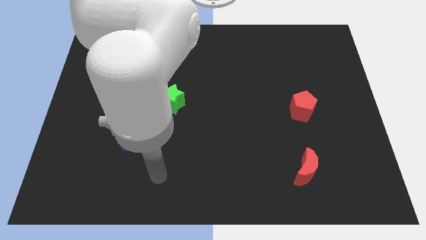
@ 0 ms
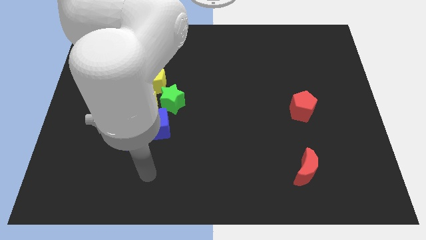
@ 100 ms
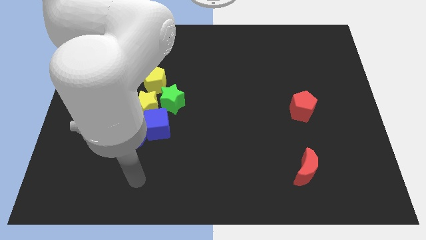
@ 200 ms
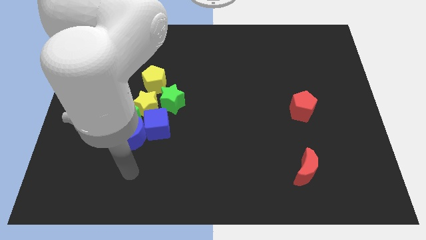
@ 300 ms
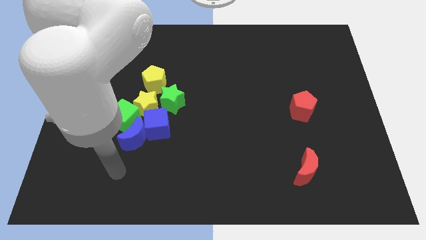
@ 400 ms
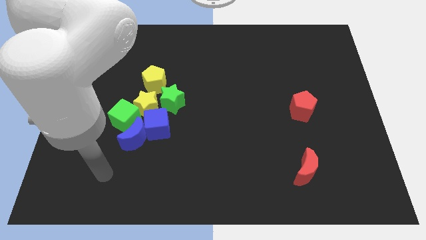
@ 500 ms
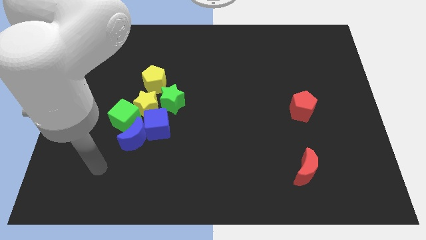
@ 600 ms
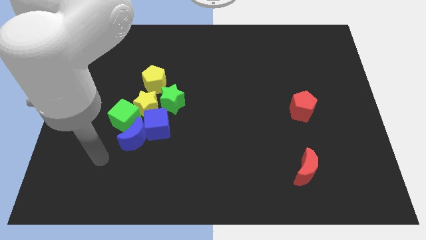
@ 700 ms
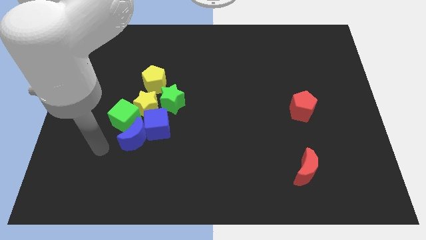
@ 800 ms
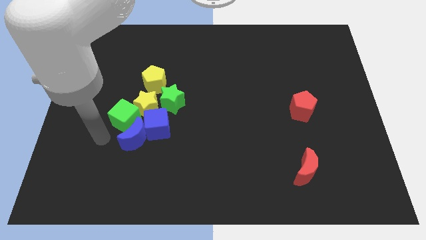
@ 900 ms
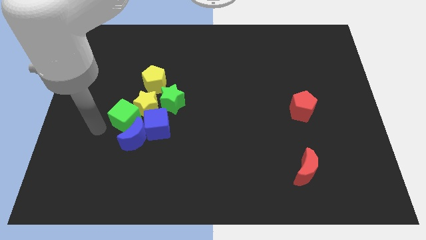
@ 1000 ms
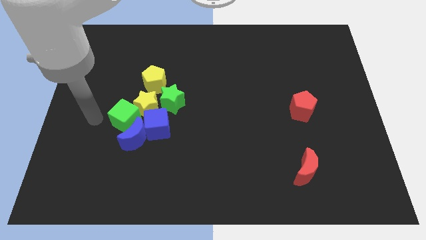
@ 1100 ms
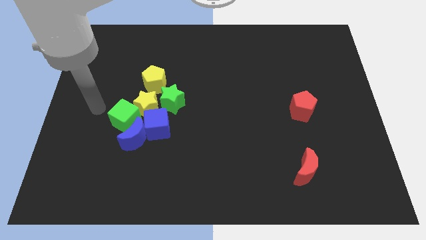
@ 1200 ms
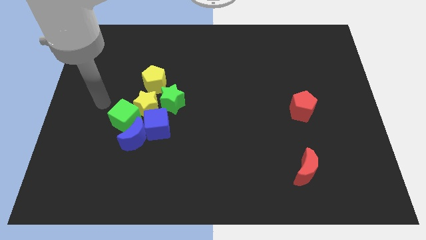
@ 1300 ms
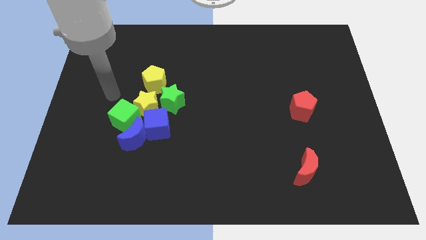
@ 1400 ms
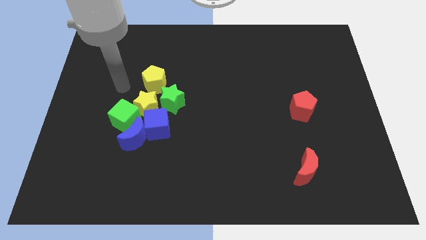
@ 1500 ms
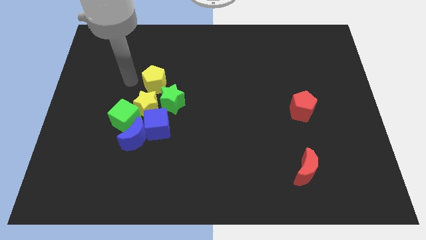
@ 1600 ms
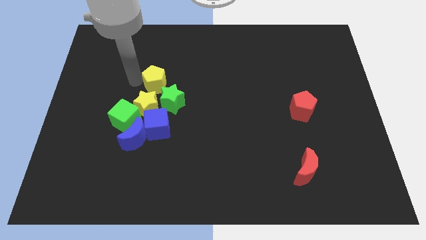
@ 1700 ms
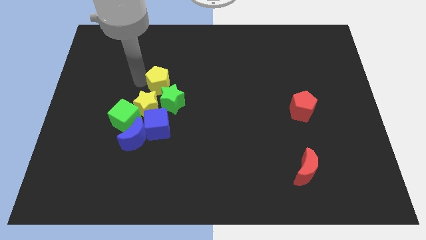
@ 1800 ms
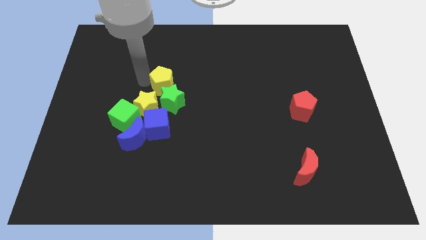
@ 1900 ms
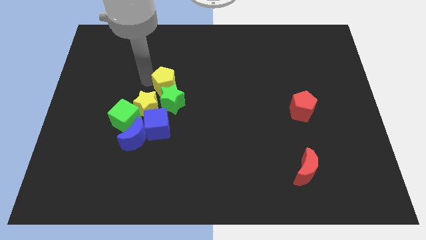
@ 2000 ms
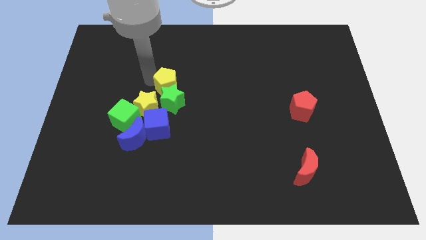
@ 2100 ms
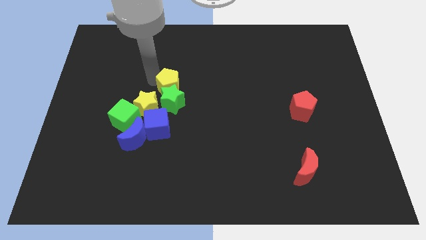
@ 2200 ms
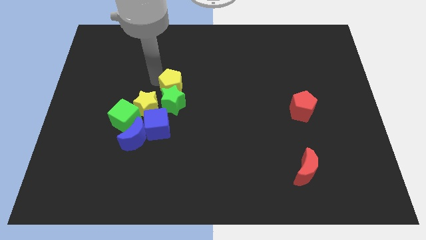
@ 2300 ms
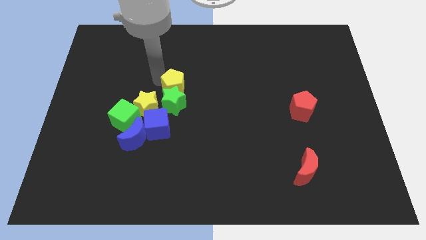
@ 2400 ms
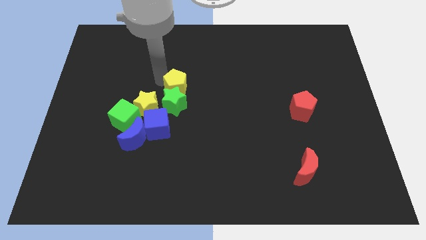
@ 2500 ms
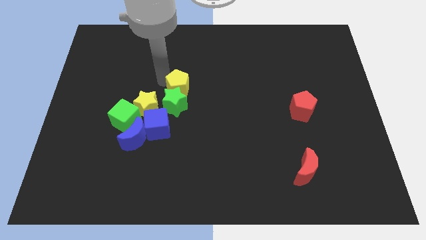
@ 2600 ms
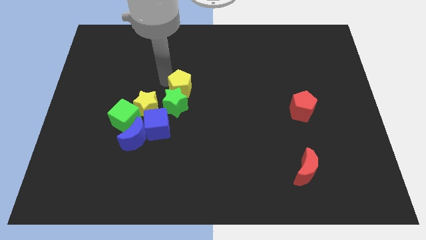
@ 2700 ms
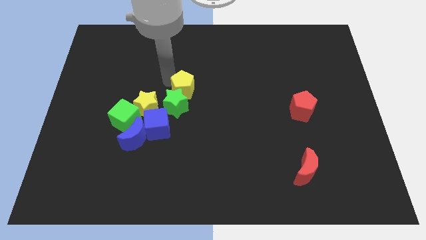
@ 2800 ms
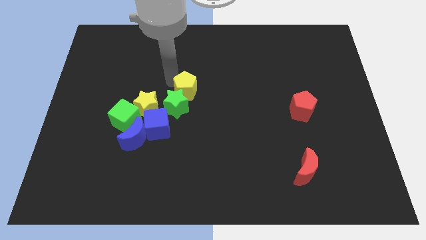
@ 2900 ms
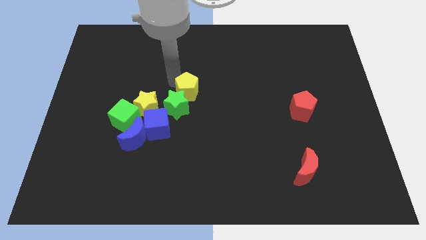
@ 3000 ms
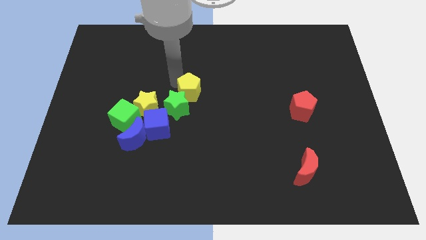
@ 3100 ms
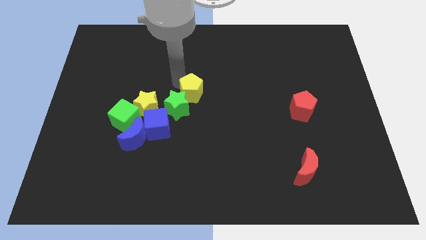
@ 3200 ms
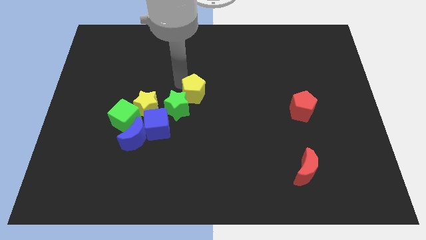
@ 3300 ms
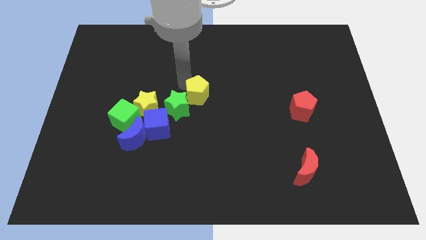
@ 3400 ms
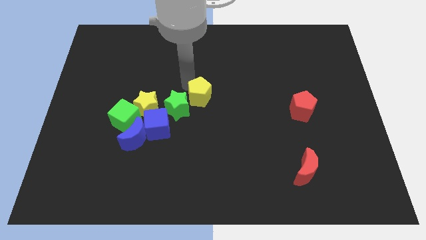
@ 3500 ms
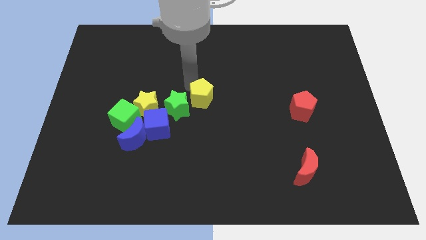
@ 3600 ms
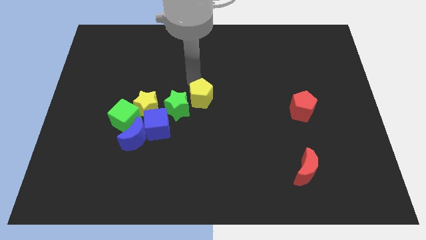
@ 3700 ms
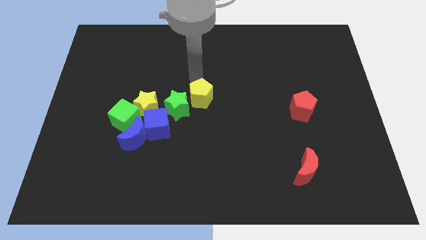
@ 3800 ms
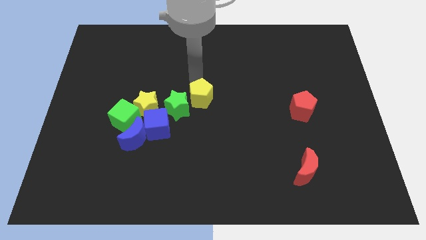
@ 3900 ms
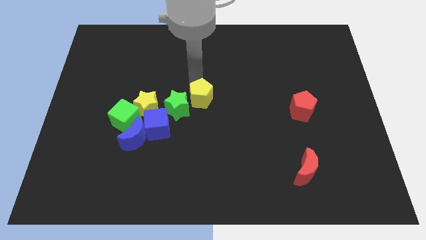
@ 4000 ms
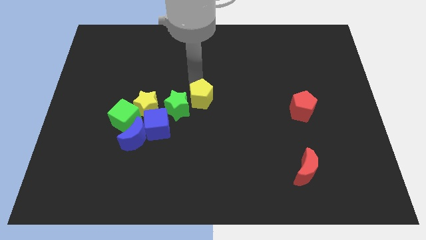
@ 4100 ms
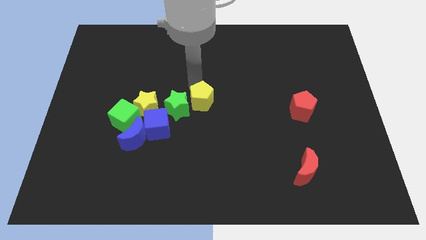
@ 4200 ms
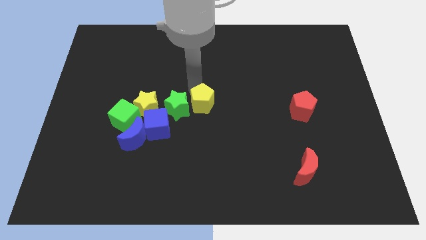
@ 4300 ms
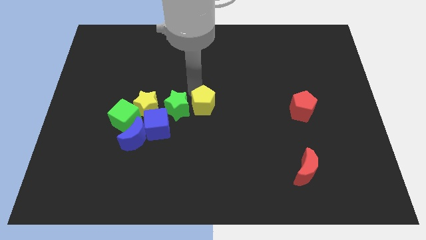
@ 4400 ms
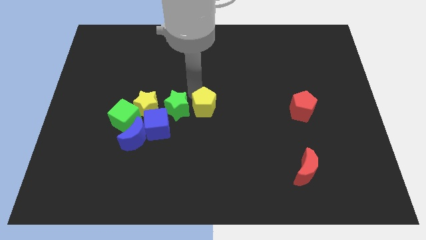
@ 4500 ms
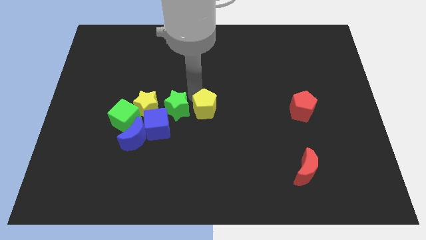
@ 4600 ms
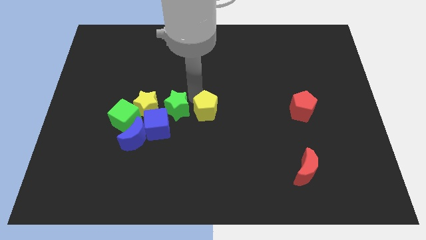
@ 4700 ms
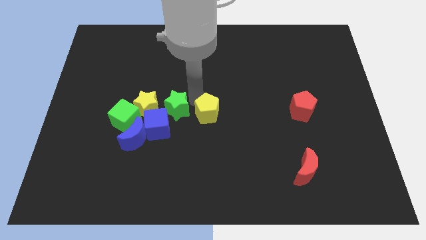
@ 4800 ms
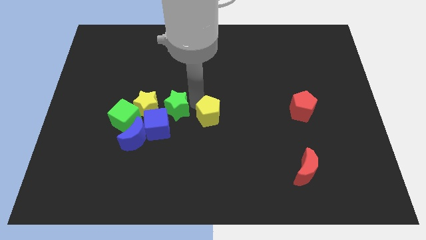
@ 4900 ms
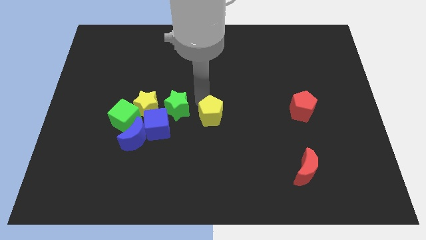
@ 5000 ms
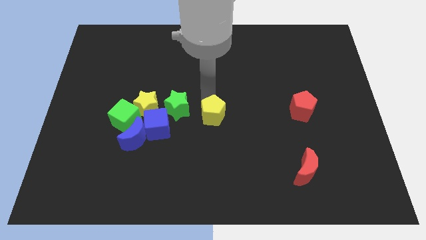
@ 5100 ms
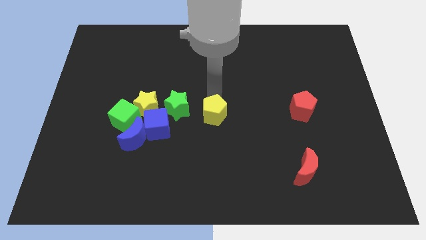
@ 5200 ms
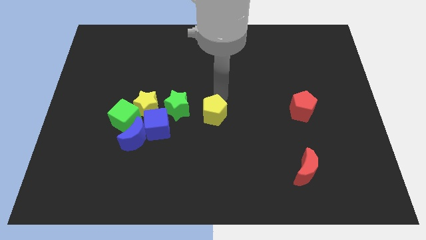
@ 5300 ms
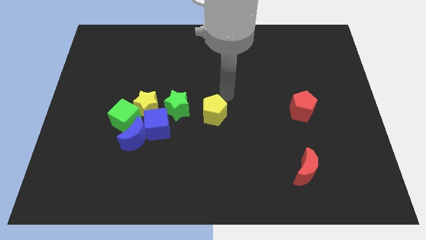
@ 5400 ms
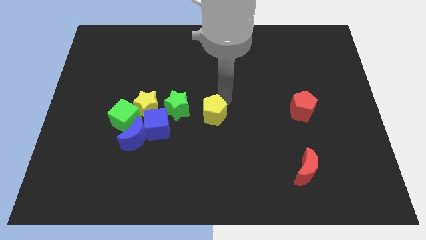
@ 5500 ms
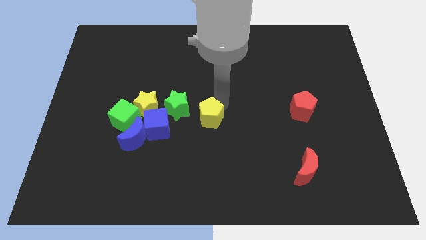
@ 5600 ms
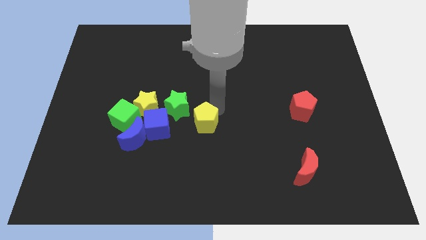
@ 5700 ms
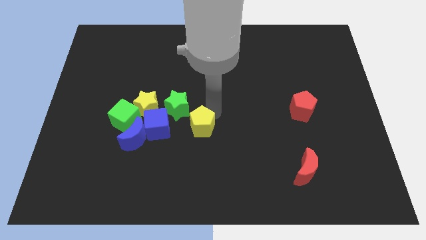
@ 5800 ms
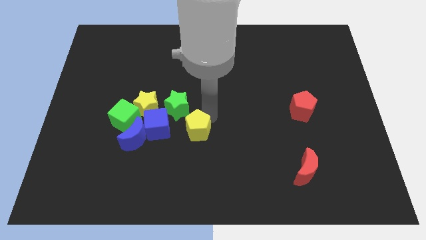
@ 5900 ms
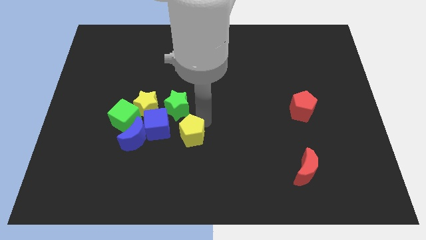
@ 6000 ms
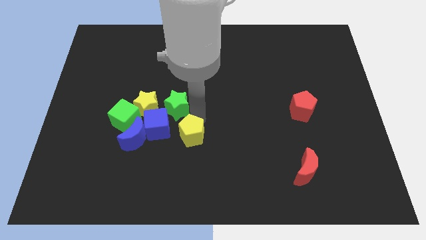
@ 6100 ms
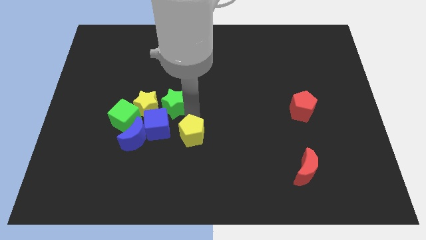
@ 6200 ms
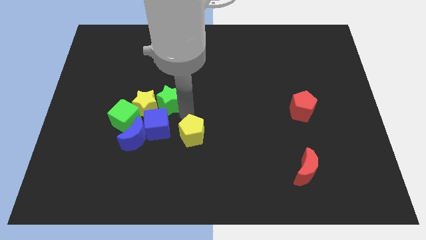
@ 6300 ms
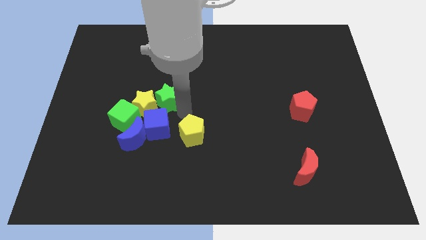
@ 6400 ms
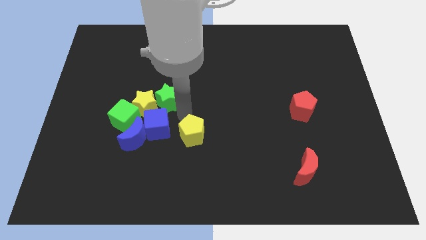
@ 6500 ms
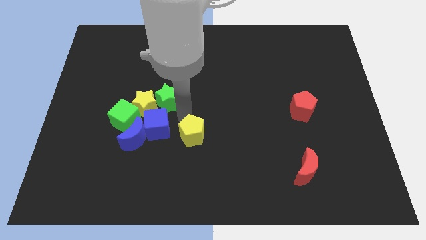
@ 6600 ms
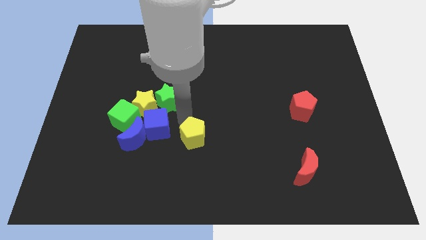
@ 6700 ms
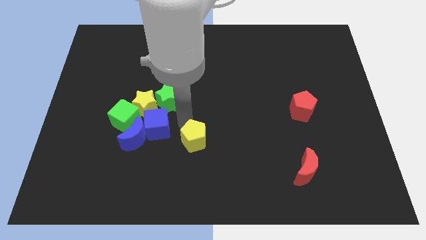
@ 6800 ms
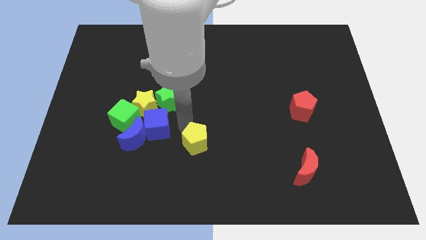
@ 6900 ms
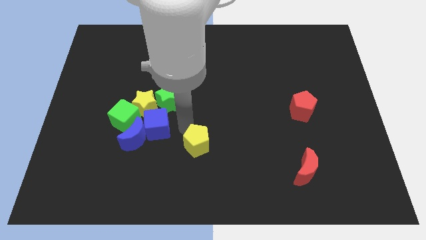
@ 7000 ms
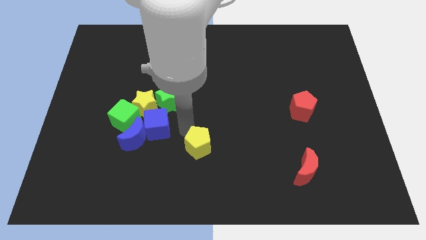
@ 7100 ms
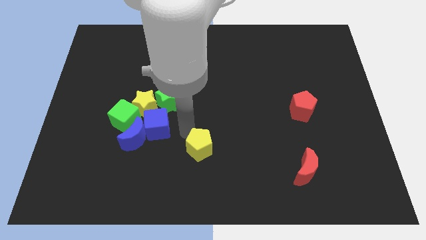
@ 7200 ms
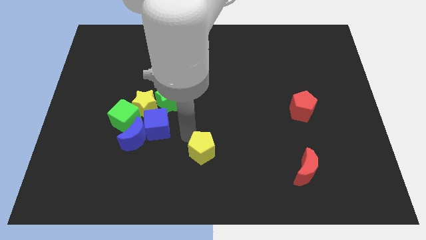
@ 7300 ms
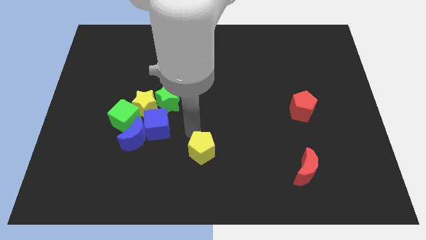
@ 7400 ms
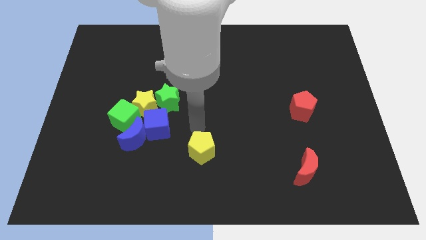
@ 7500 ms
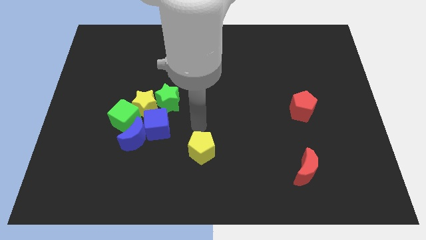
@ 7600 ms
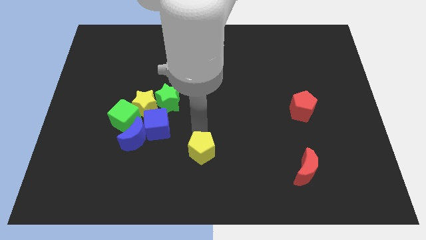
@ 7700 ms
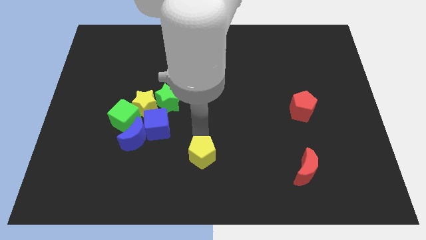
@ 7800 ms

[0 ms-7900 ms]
push the yellow pentagon to the bottom side
